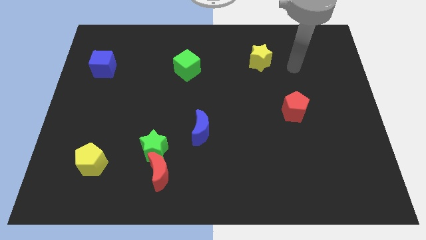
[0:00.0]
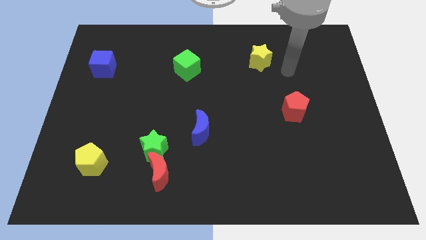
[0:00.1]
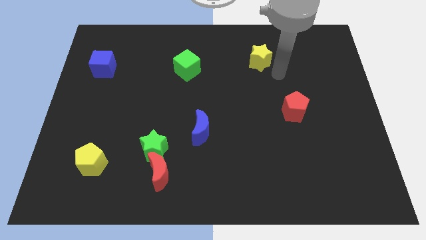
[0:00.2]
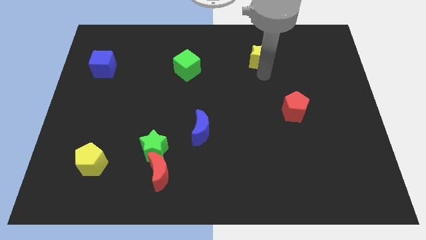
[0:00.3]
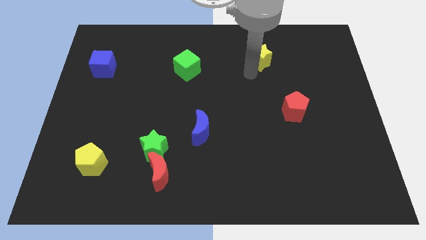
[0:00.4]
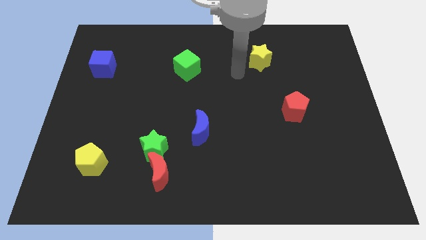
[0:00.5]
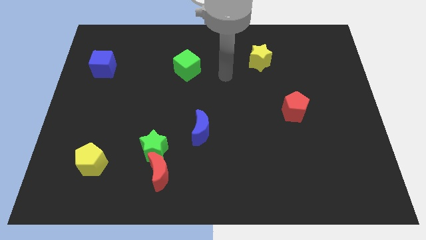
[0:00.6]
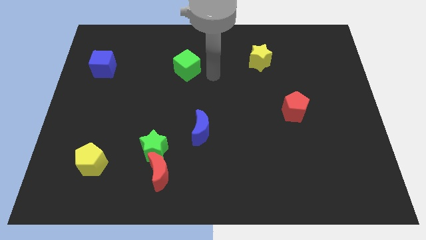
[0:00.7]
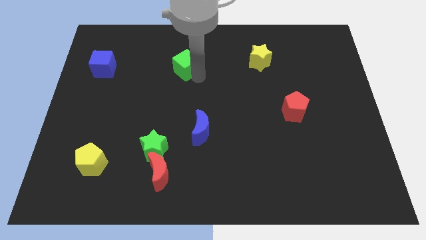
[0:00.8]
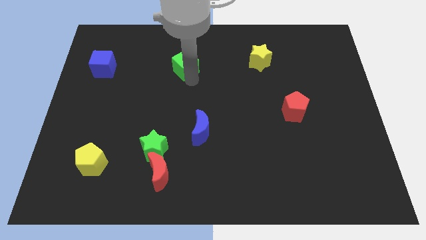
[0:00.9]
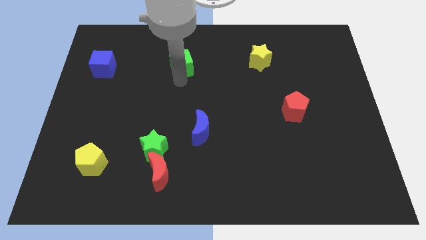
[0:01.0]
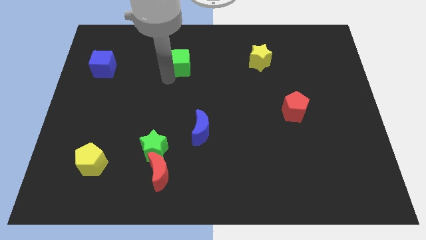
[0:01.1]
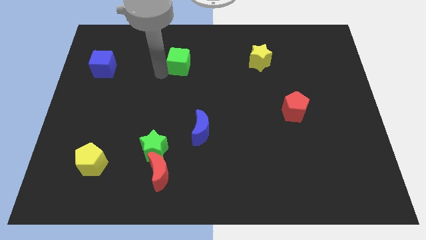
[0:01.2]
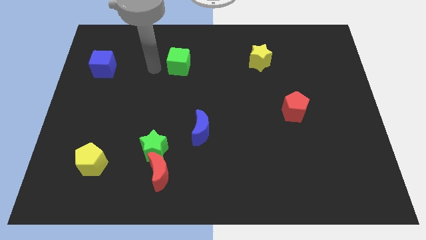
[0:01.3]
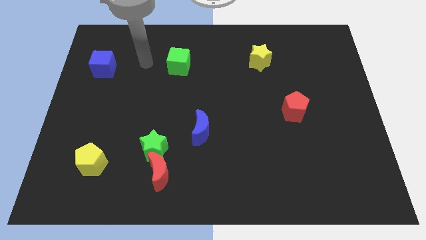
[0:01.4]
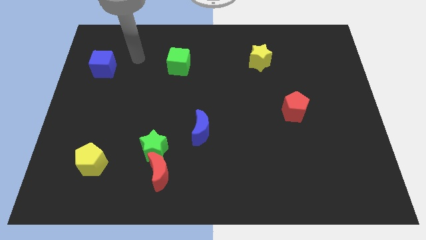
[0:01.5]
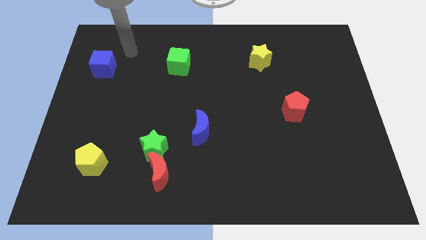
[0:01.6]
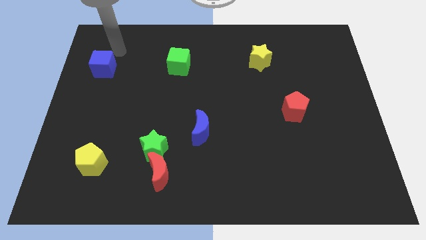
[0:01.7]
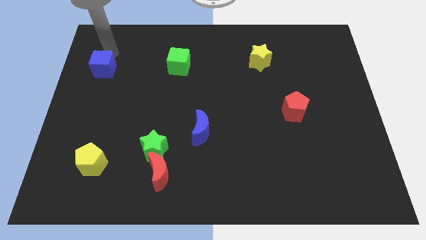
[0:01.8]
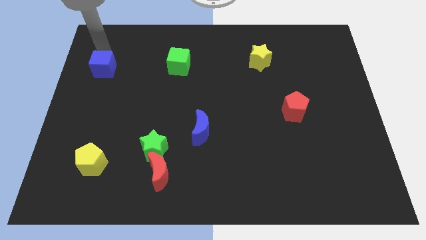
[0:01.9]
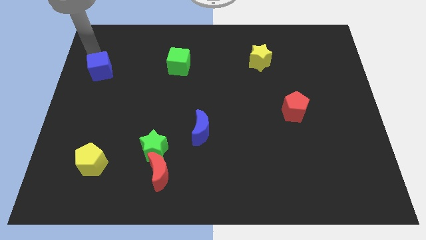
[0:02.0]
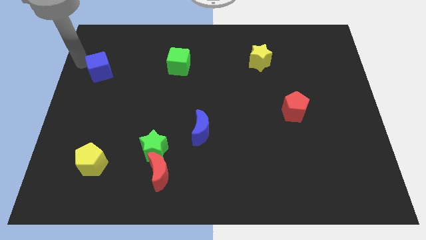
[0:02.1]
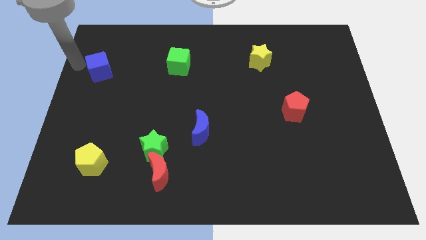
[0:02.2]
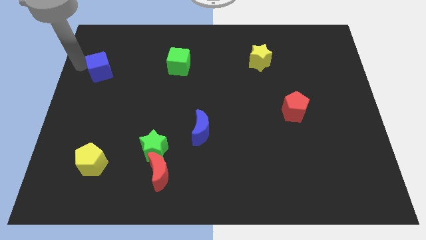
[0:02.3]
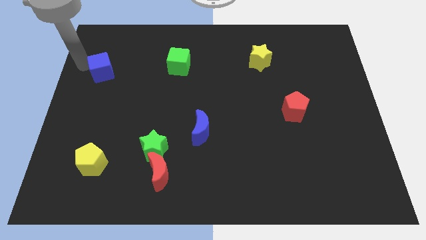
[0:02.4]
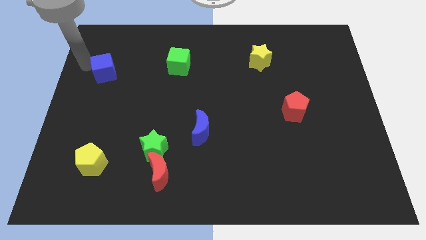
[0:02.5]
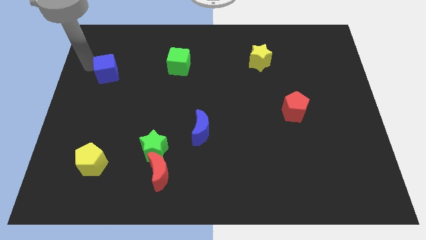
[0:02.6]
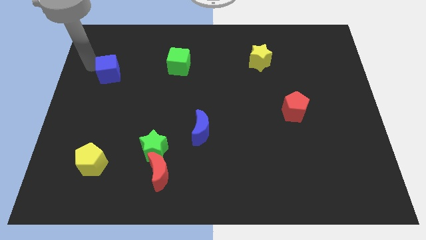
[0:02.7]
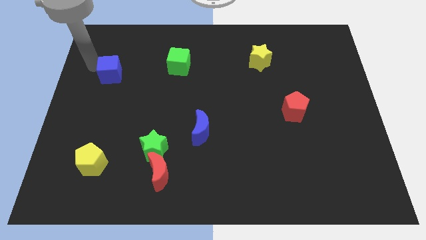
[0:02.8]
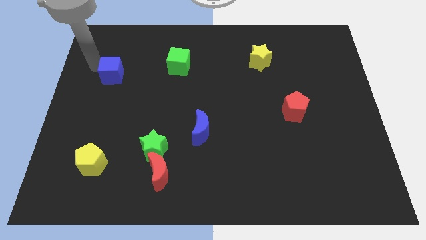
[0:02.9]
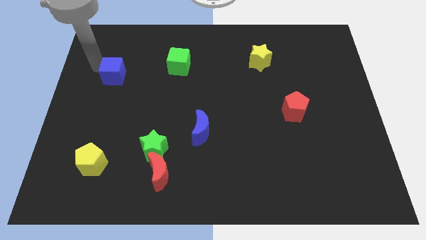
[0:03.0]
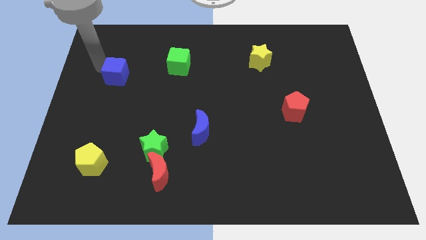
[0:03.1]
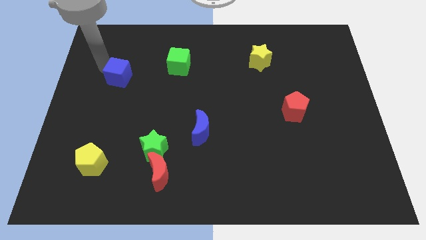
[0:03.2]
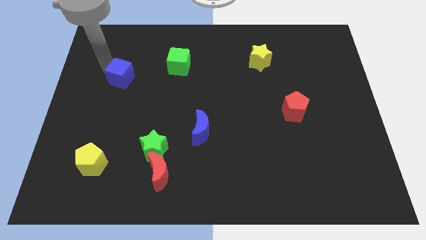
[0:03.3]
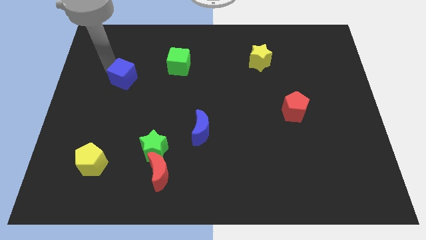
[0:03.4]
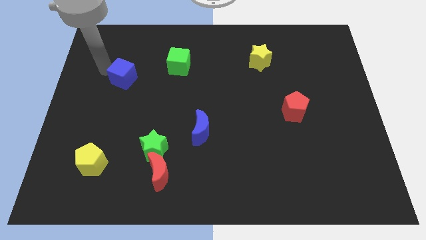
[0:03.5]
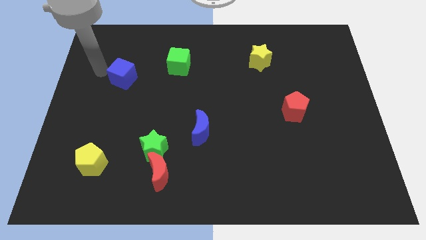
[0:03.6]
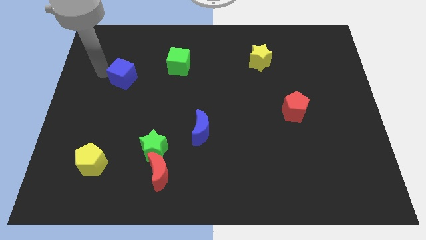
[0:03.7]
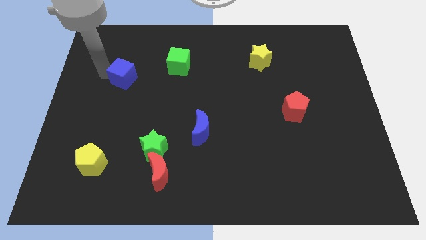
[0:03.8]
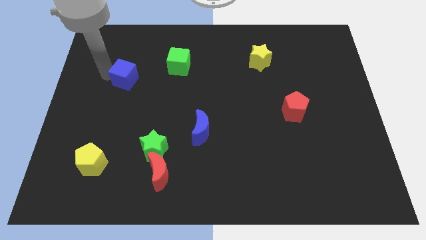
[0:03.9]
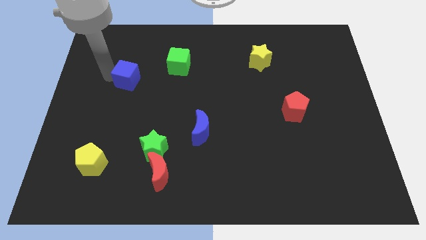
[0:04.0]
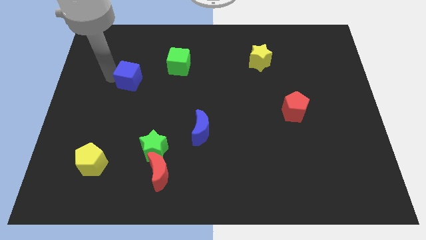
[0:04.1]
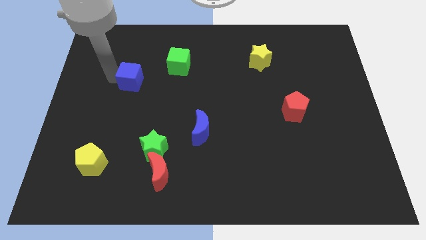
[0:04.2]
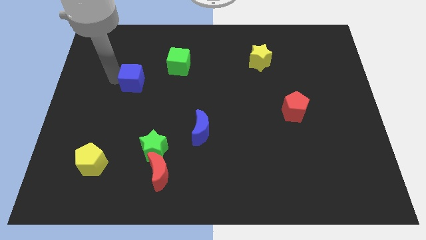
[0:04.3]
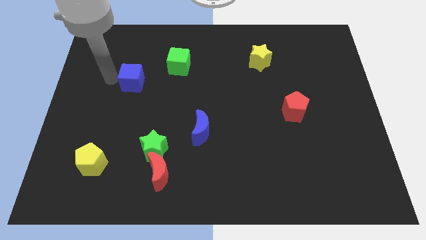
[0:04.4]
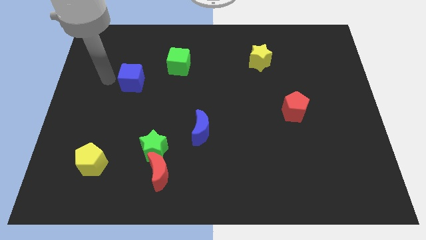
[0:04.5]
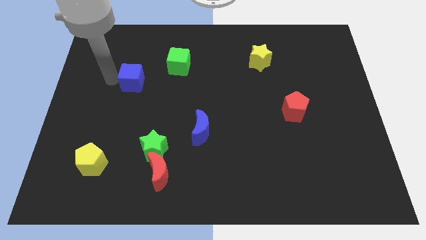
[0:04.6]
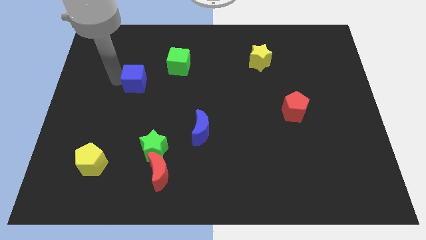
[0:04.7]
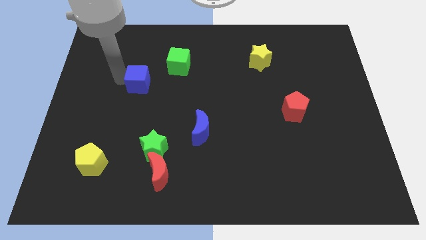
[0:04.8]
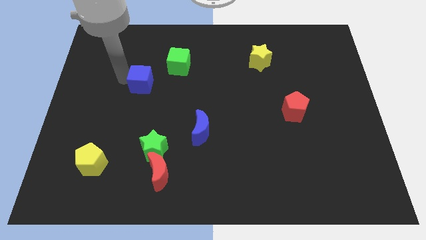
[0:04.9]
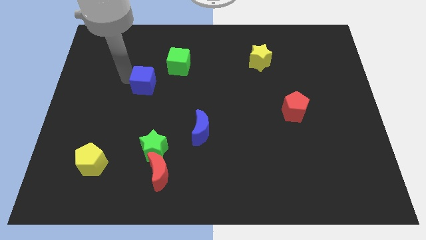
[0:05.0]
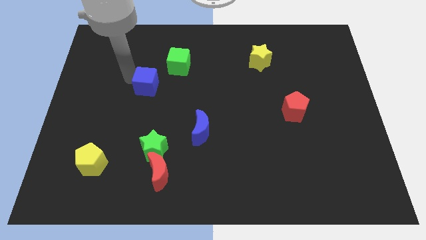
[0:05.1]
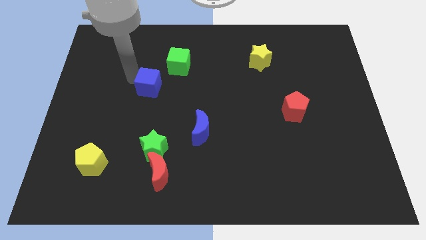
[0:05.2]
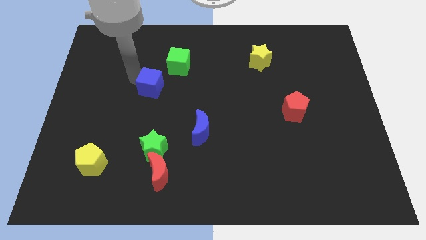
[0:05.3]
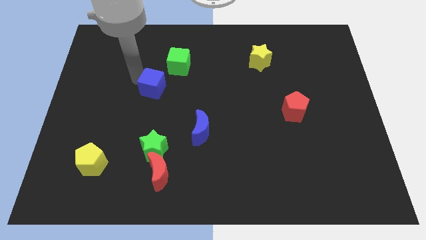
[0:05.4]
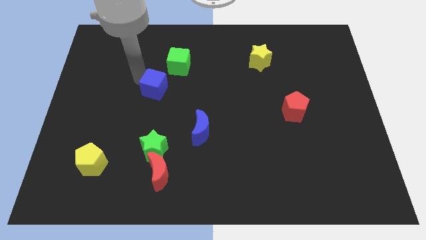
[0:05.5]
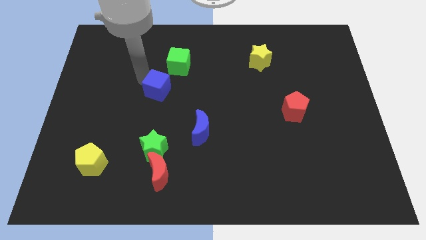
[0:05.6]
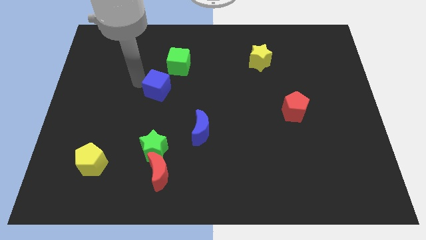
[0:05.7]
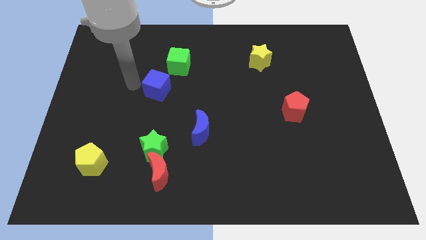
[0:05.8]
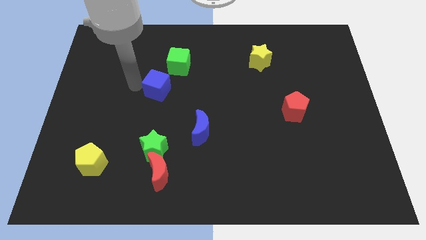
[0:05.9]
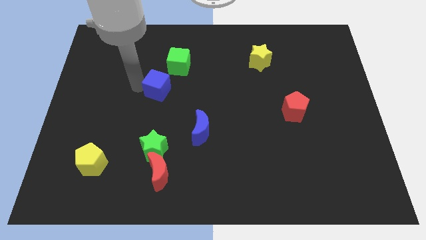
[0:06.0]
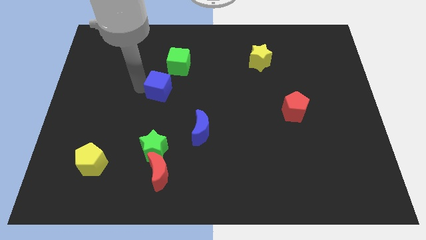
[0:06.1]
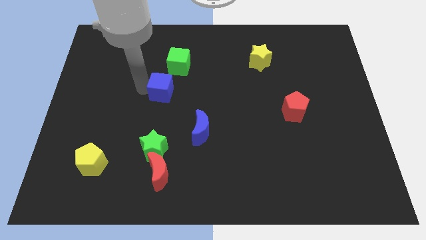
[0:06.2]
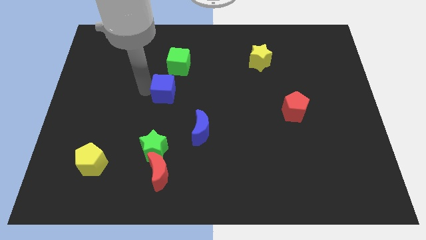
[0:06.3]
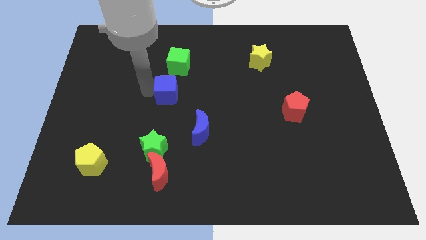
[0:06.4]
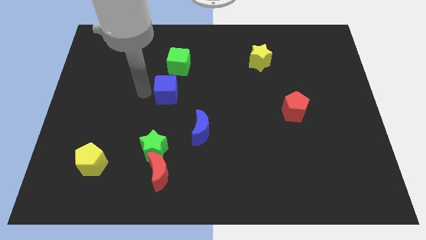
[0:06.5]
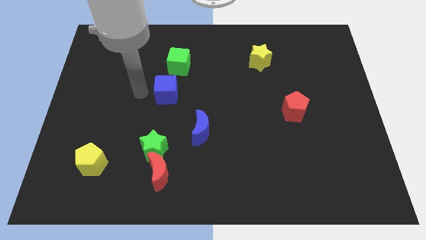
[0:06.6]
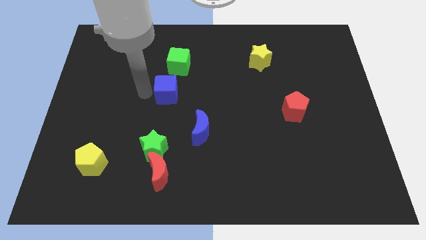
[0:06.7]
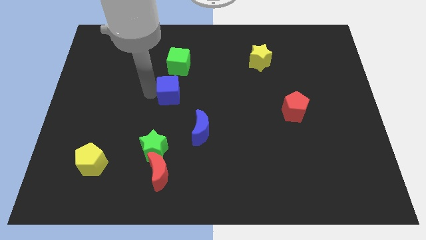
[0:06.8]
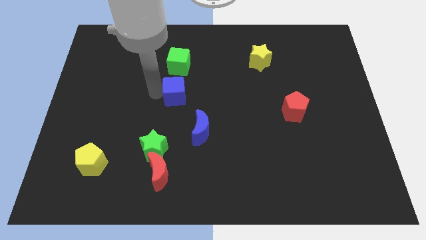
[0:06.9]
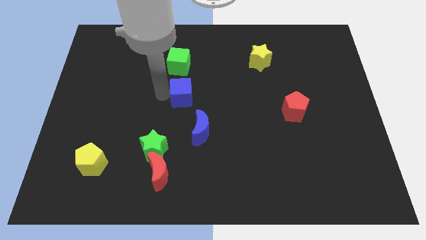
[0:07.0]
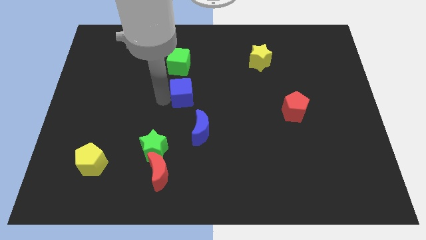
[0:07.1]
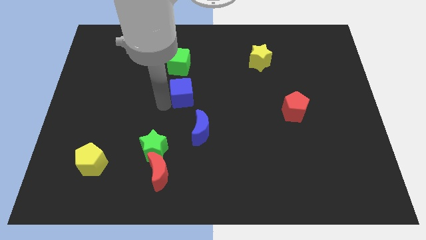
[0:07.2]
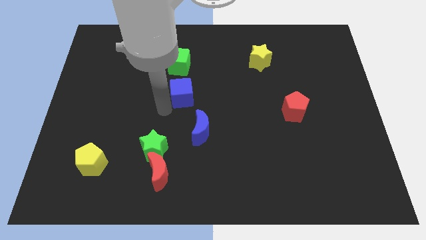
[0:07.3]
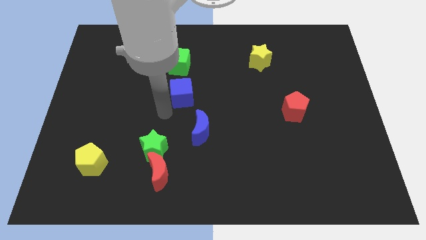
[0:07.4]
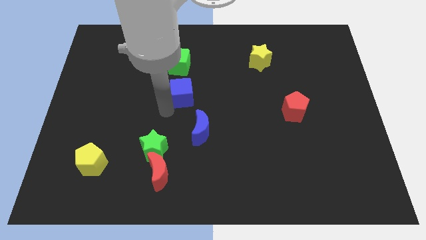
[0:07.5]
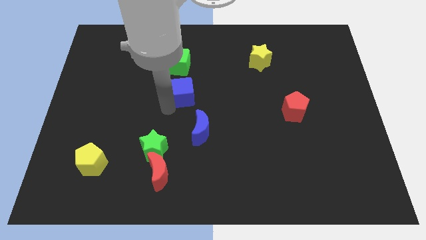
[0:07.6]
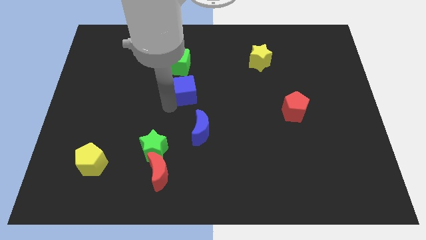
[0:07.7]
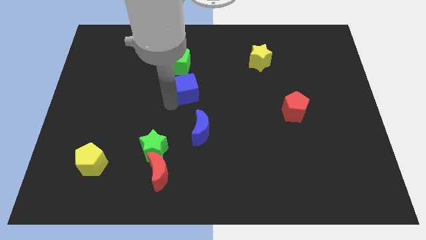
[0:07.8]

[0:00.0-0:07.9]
push the blue cube to the bottom right of the green cube
